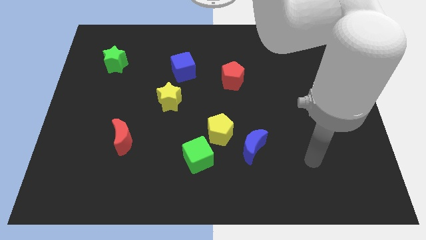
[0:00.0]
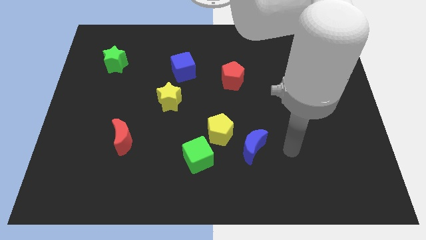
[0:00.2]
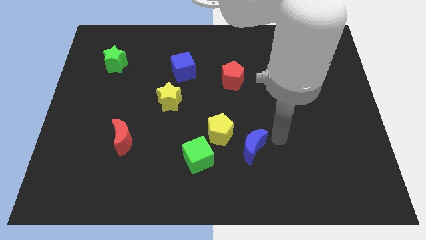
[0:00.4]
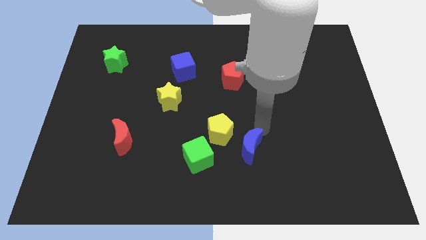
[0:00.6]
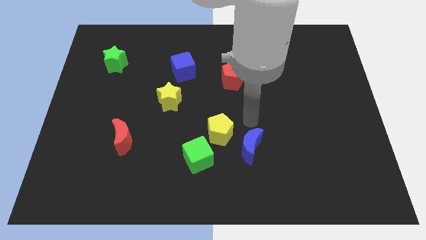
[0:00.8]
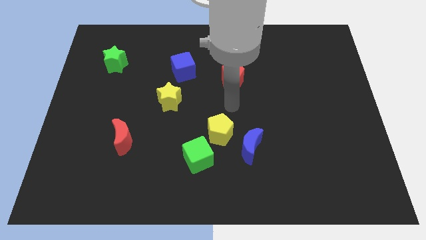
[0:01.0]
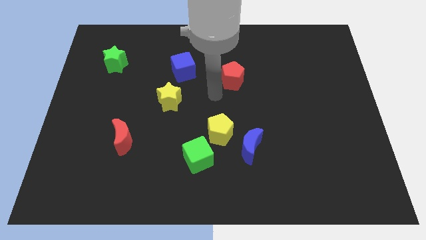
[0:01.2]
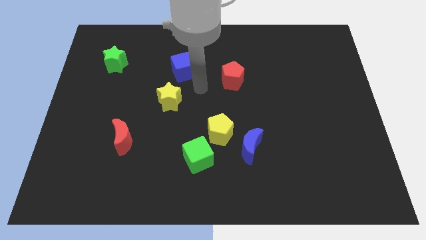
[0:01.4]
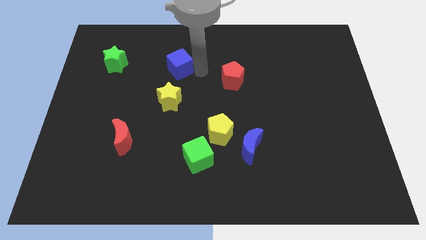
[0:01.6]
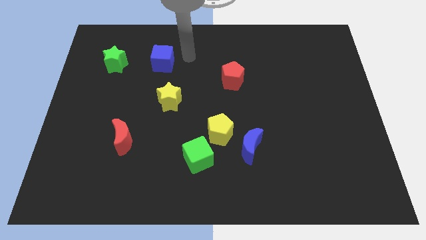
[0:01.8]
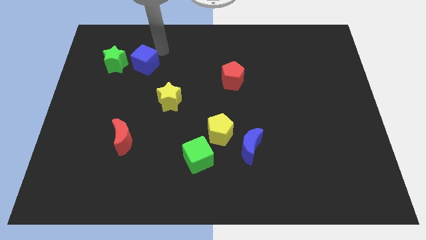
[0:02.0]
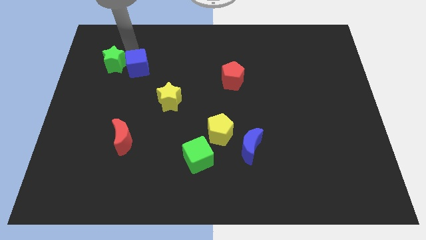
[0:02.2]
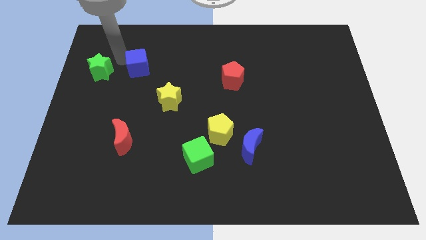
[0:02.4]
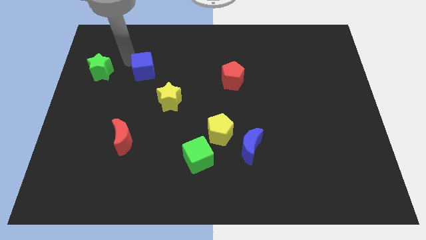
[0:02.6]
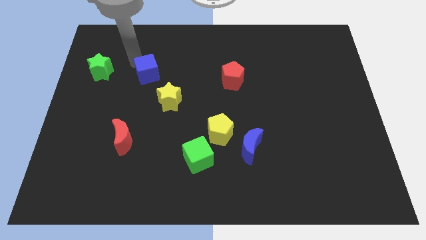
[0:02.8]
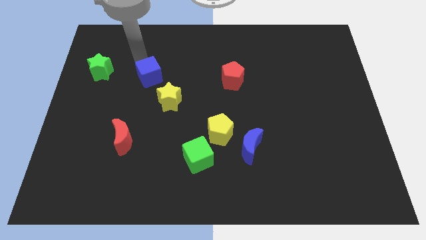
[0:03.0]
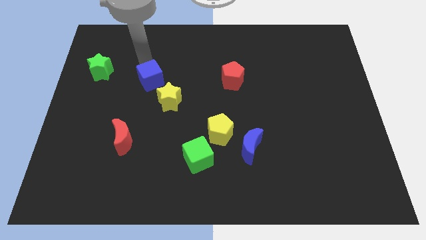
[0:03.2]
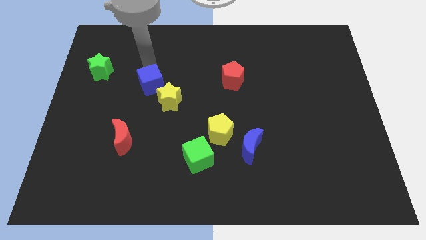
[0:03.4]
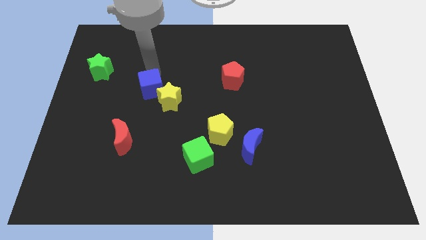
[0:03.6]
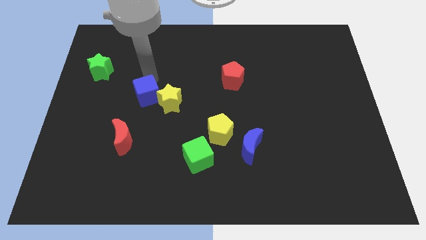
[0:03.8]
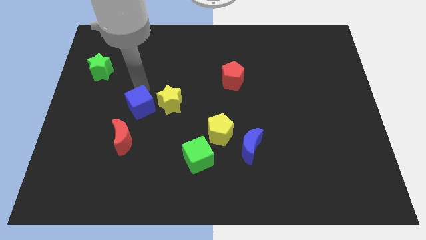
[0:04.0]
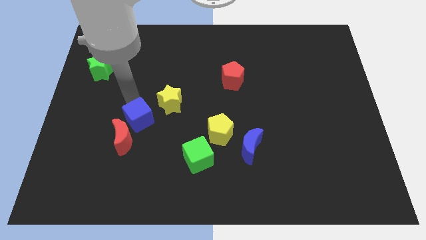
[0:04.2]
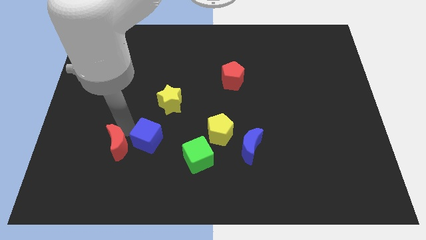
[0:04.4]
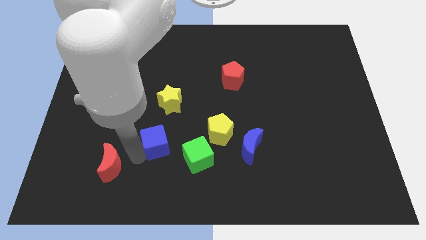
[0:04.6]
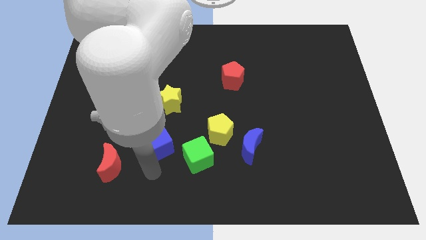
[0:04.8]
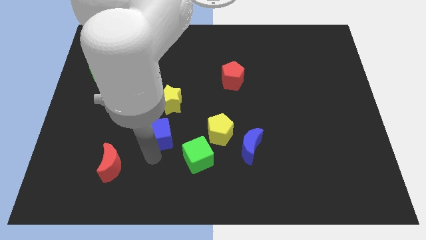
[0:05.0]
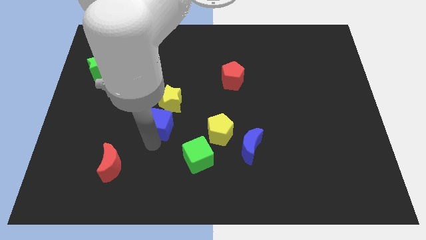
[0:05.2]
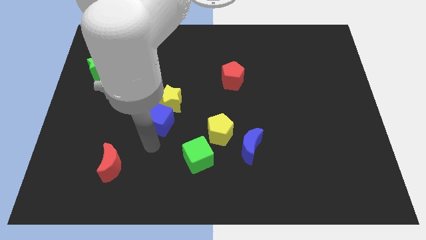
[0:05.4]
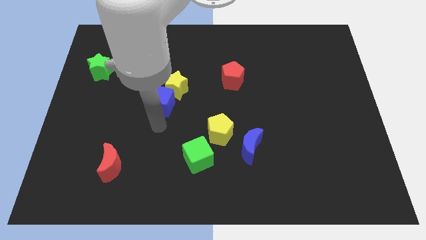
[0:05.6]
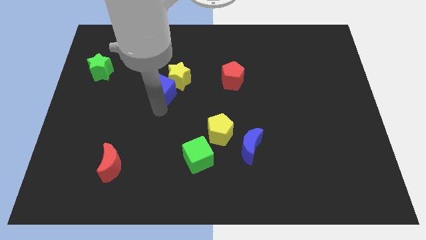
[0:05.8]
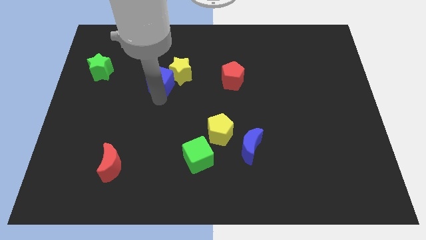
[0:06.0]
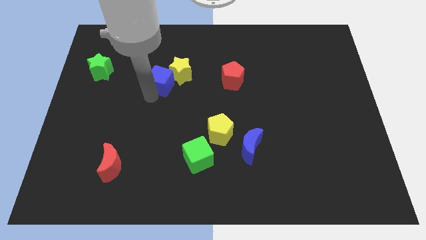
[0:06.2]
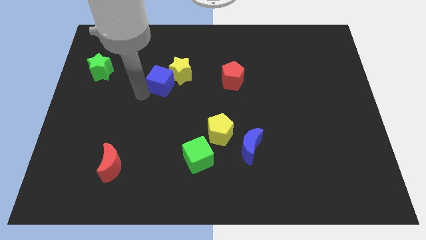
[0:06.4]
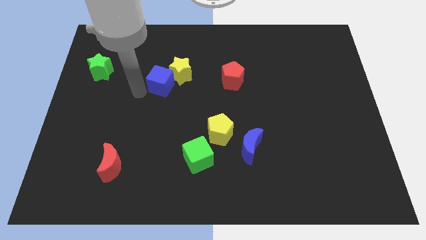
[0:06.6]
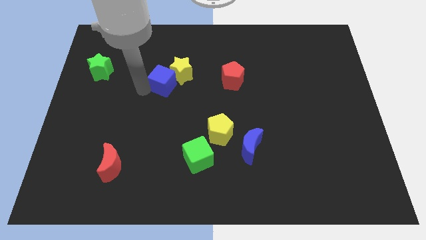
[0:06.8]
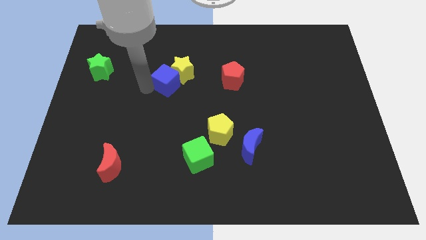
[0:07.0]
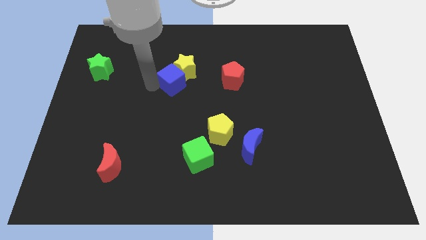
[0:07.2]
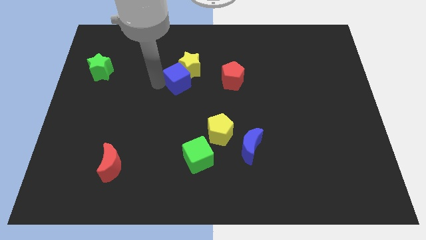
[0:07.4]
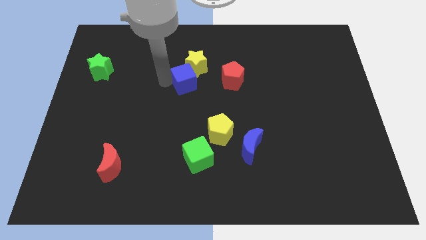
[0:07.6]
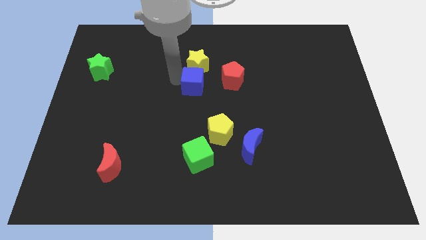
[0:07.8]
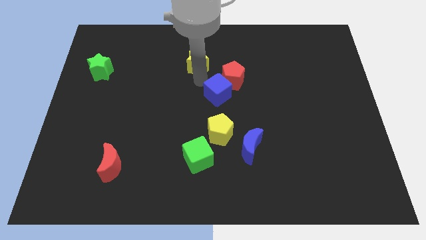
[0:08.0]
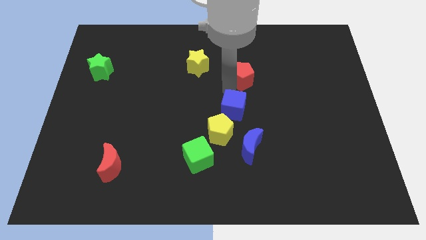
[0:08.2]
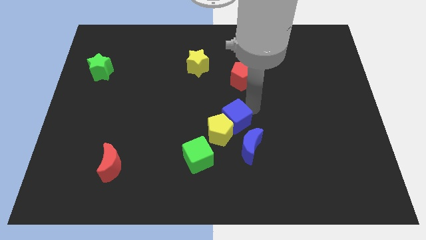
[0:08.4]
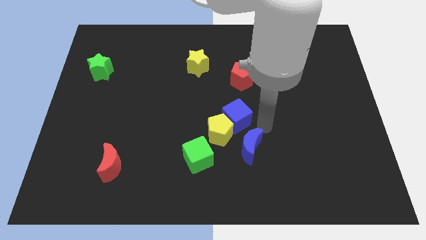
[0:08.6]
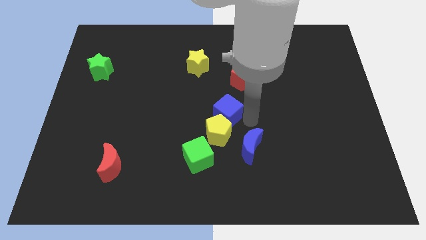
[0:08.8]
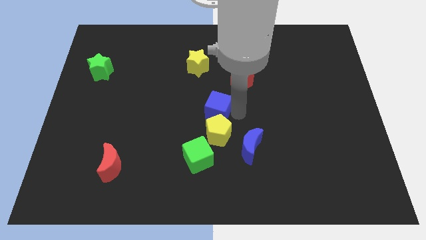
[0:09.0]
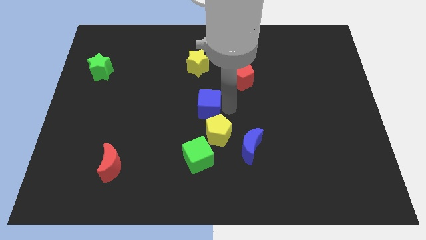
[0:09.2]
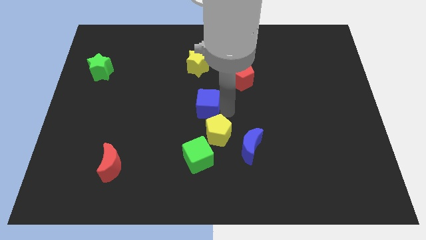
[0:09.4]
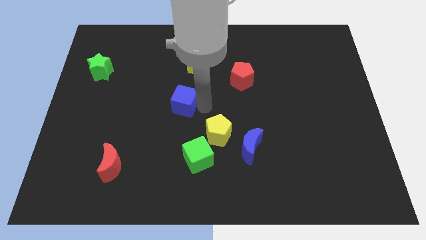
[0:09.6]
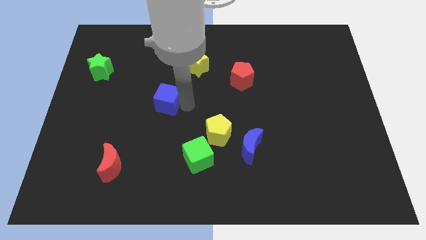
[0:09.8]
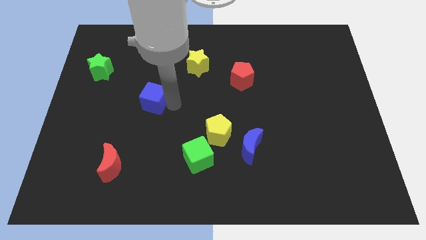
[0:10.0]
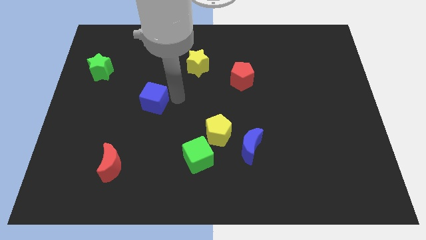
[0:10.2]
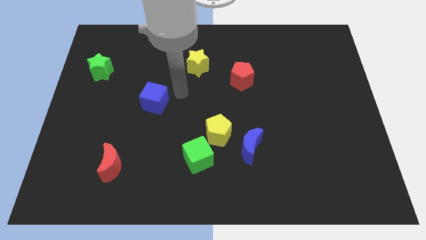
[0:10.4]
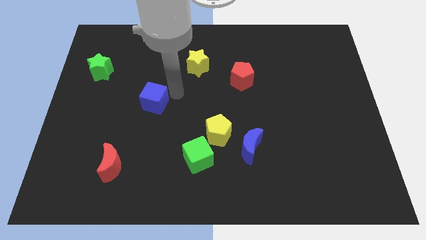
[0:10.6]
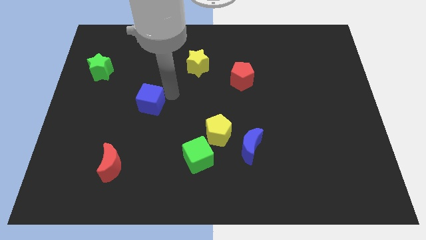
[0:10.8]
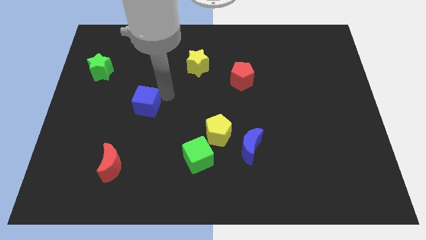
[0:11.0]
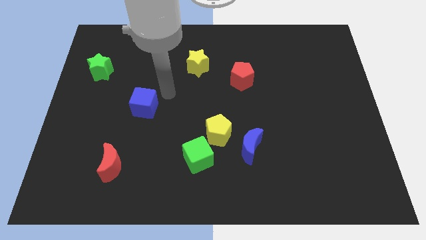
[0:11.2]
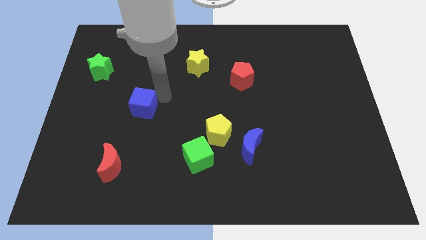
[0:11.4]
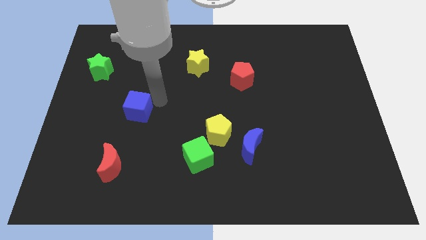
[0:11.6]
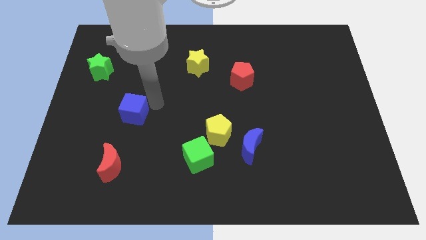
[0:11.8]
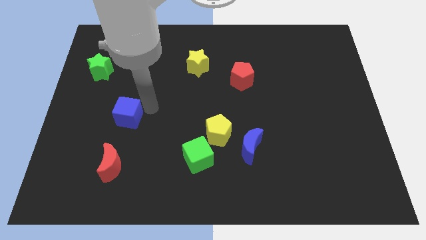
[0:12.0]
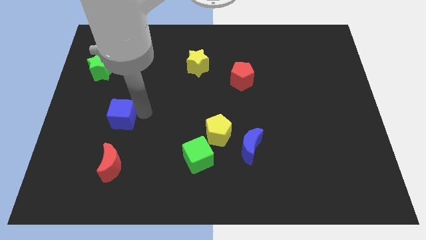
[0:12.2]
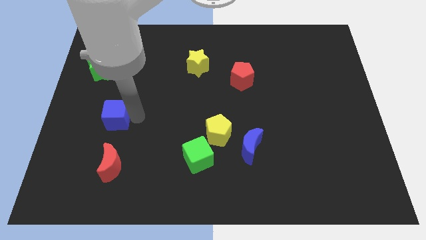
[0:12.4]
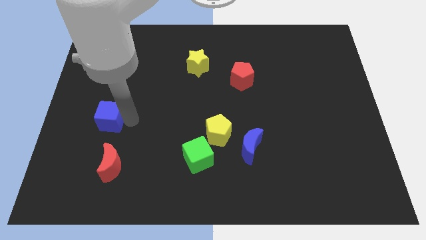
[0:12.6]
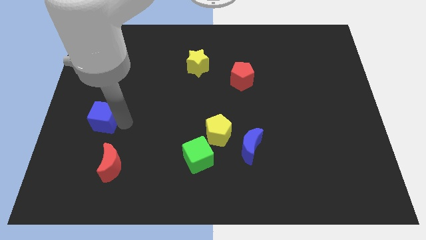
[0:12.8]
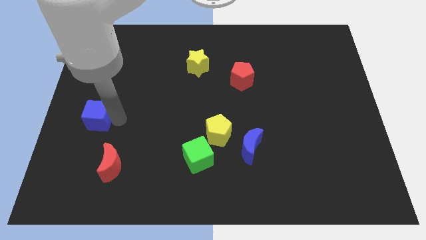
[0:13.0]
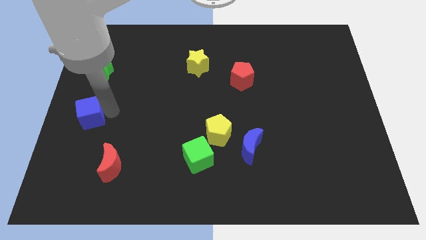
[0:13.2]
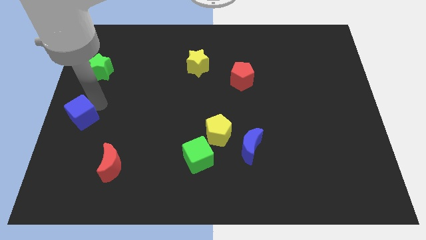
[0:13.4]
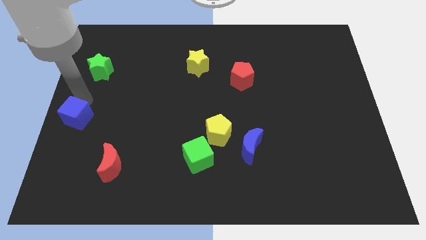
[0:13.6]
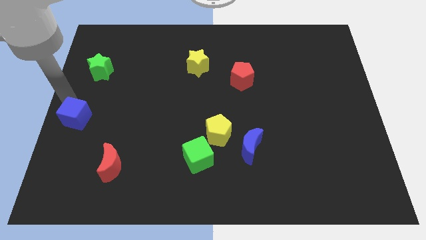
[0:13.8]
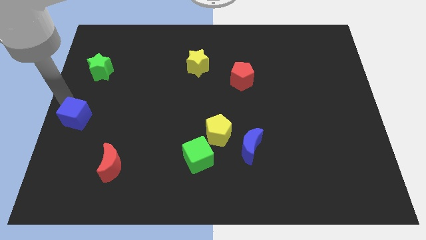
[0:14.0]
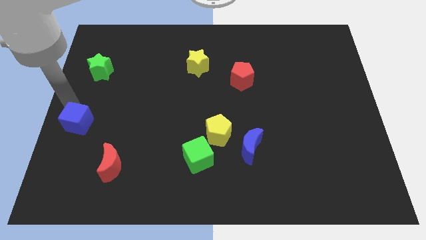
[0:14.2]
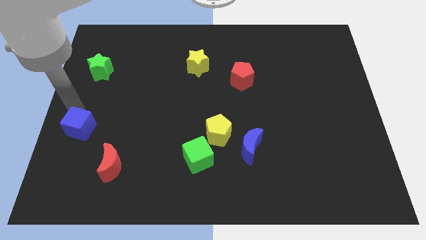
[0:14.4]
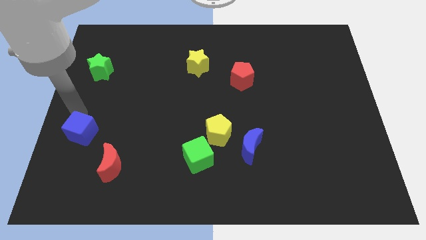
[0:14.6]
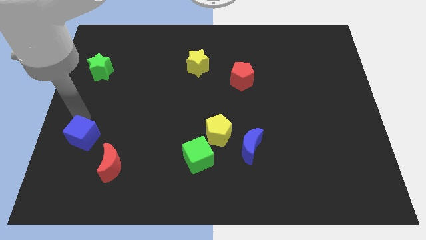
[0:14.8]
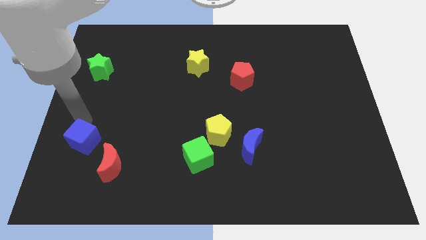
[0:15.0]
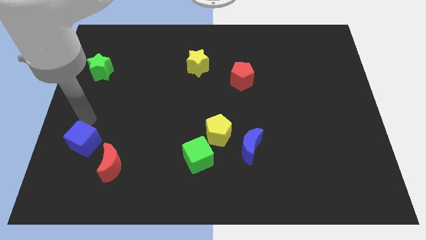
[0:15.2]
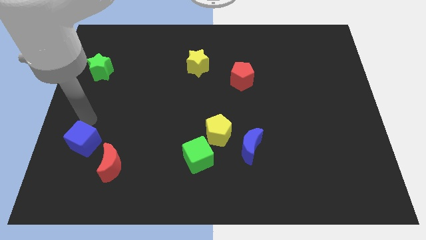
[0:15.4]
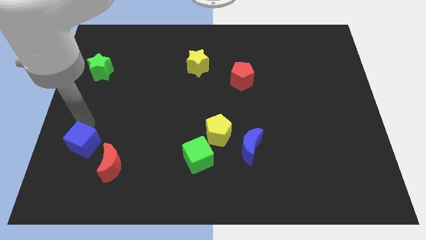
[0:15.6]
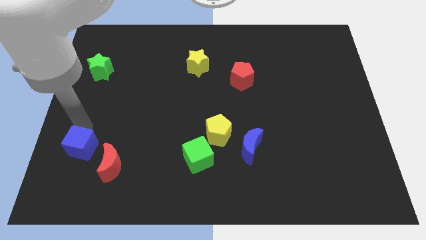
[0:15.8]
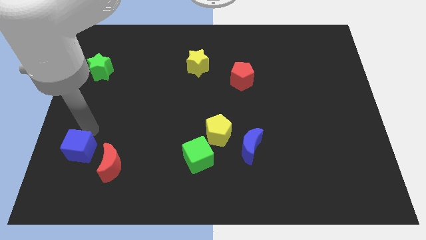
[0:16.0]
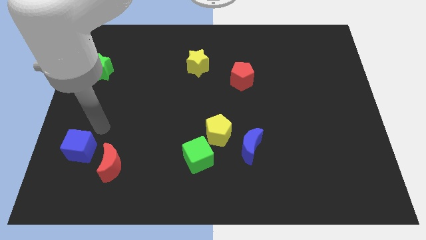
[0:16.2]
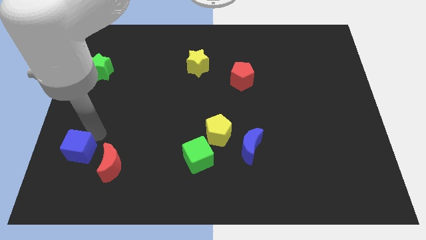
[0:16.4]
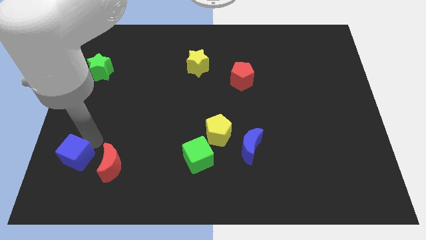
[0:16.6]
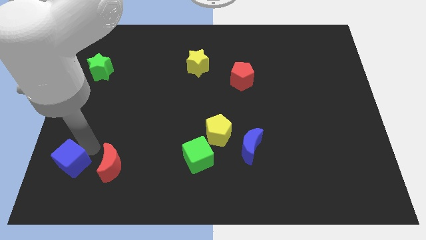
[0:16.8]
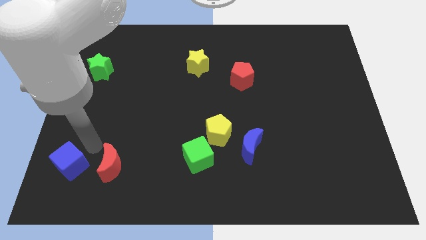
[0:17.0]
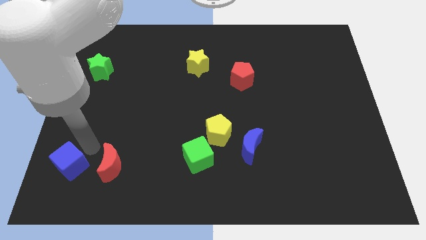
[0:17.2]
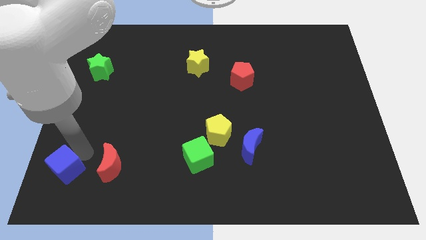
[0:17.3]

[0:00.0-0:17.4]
push the blue cube to the bottom left corner
